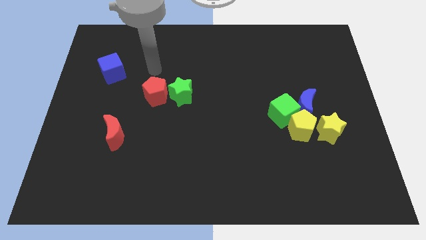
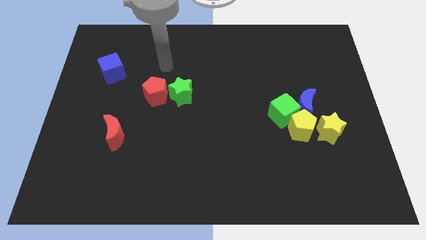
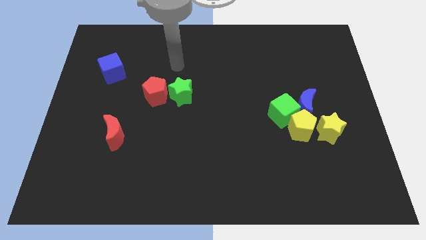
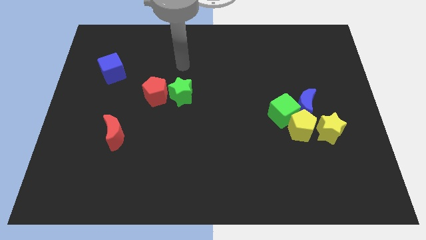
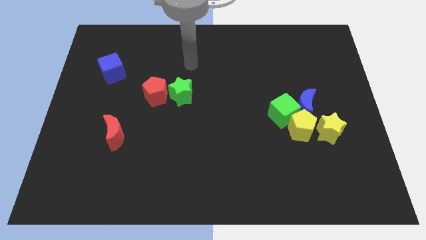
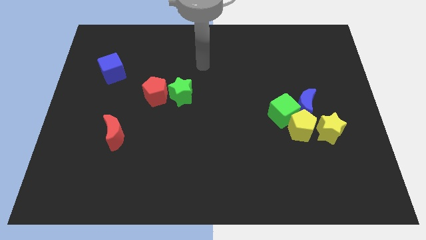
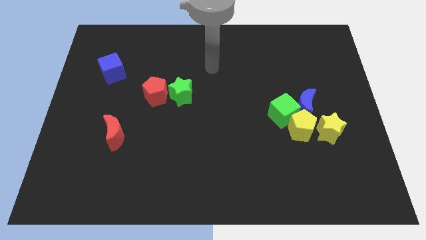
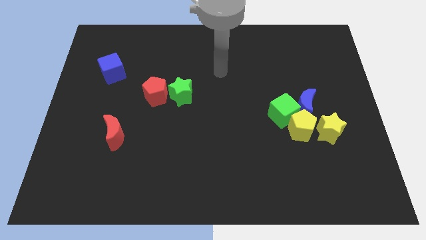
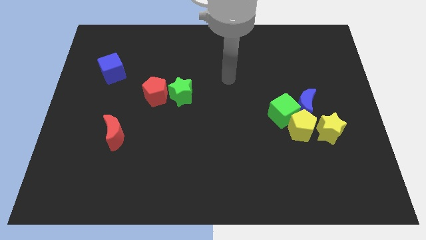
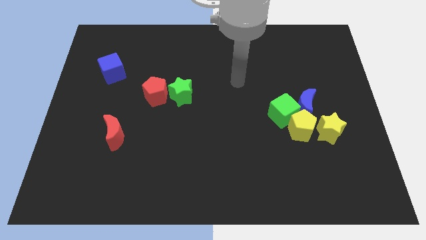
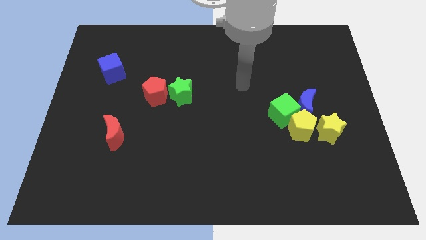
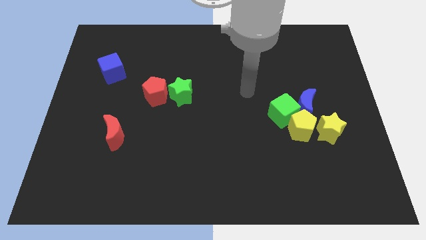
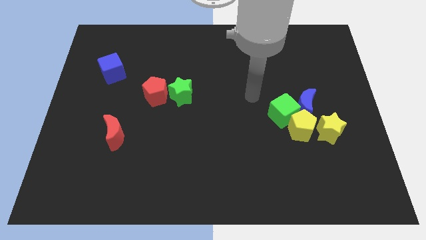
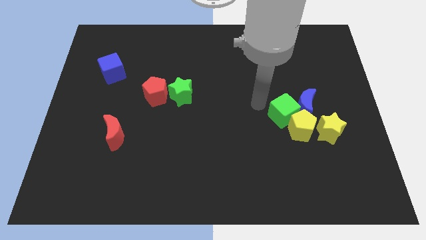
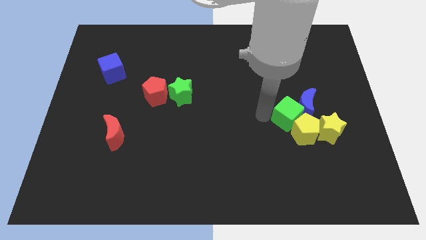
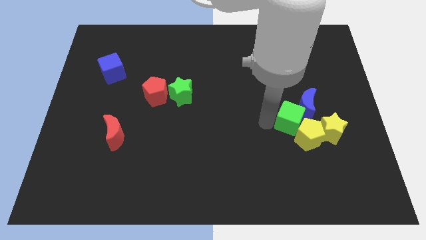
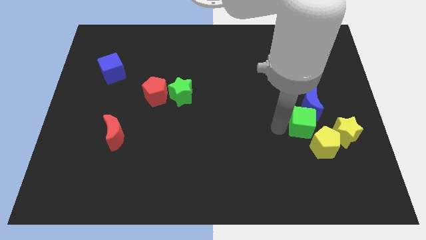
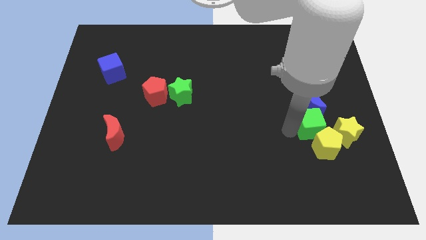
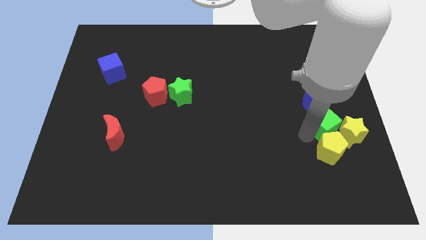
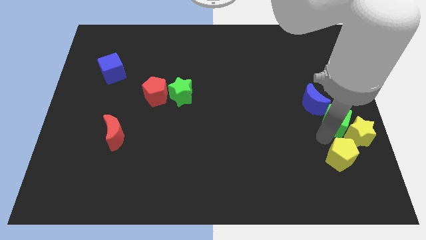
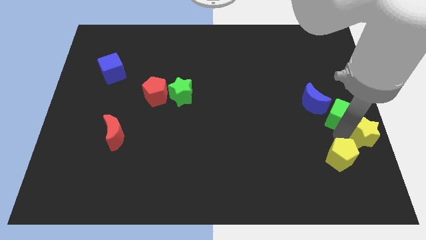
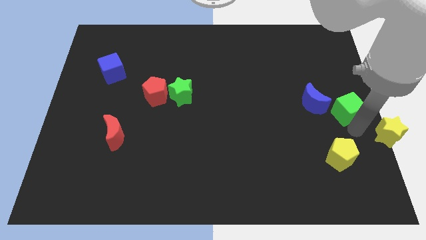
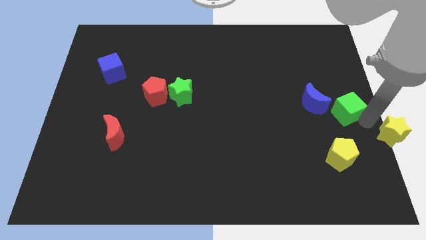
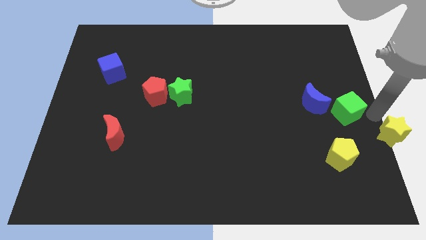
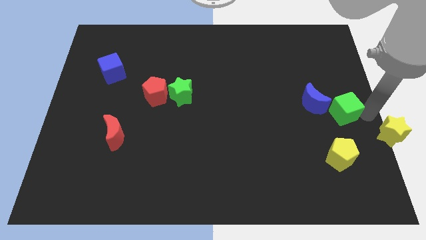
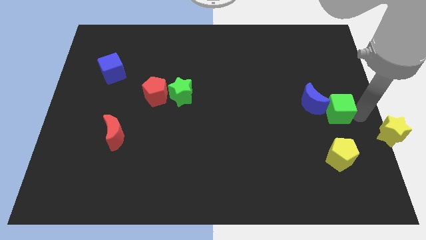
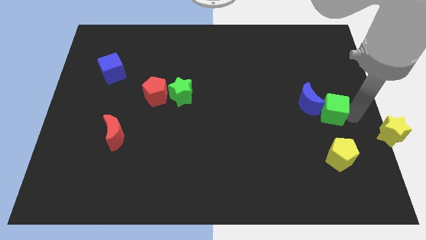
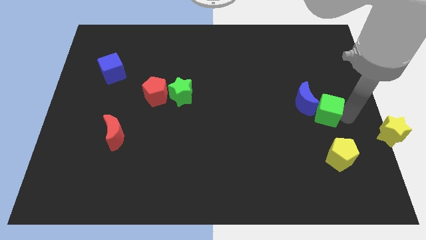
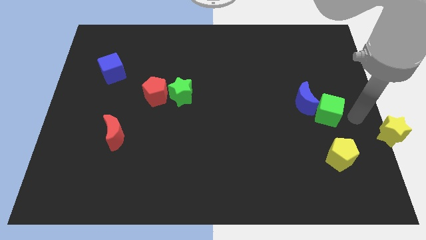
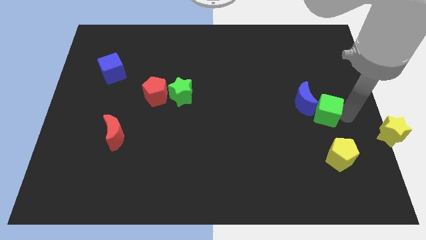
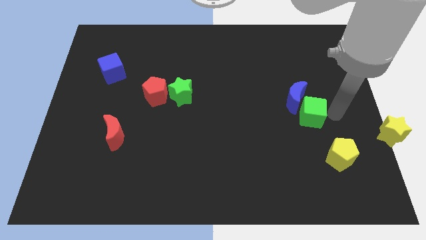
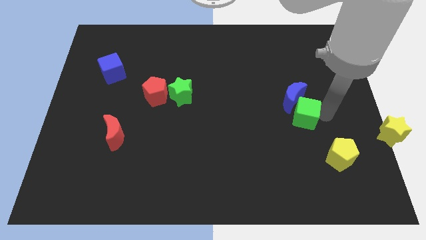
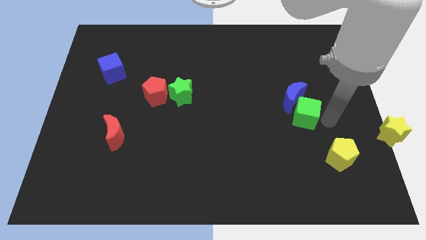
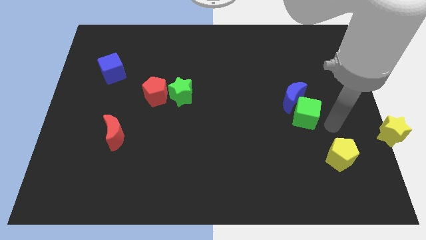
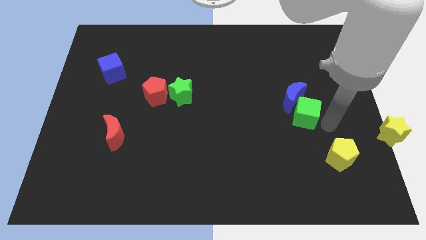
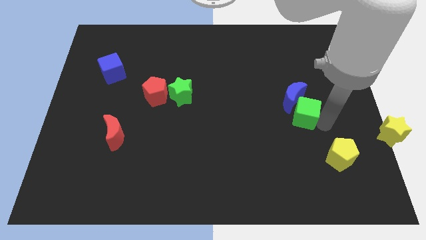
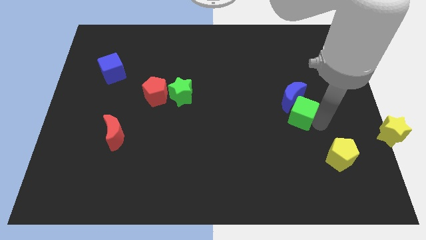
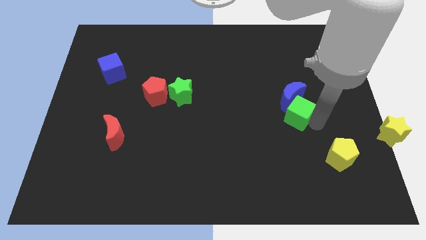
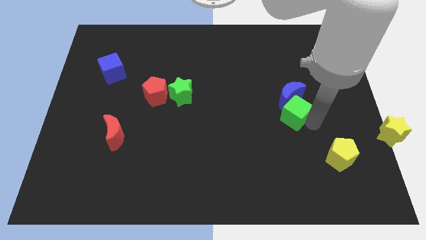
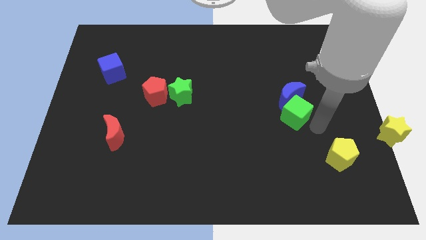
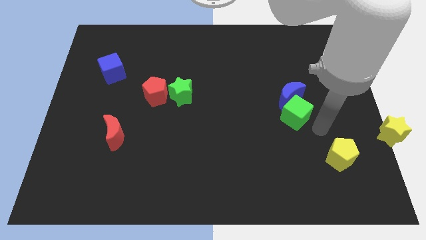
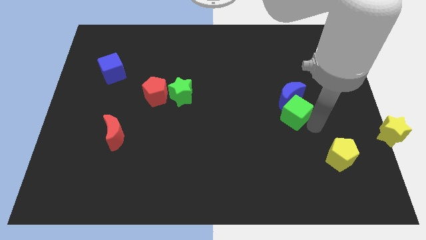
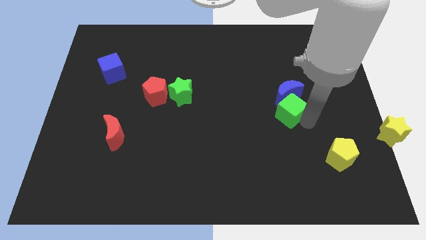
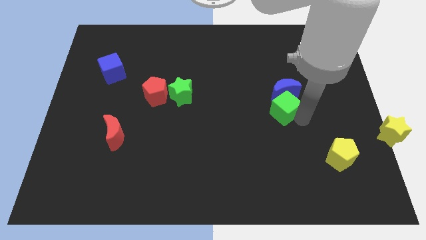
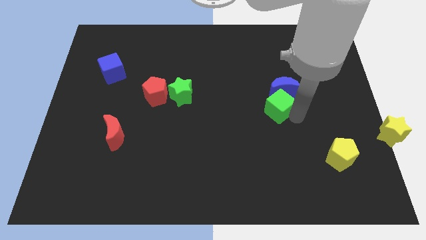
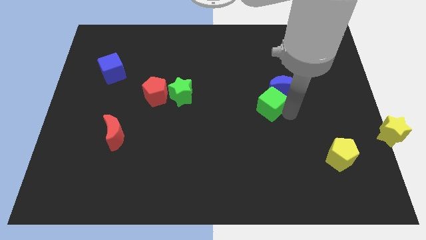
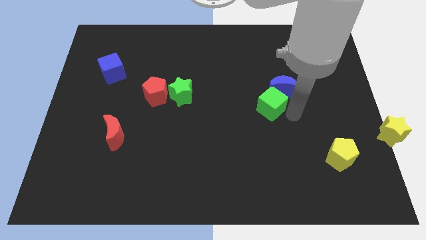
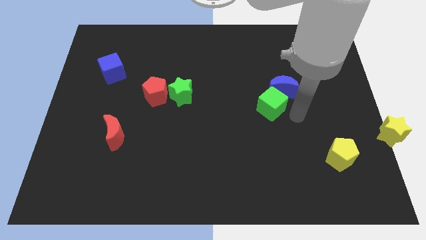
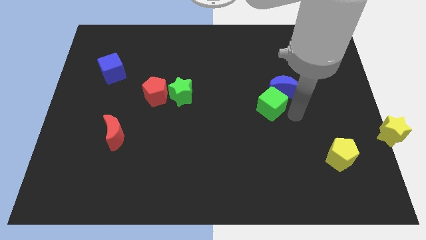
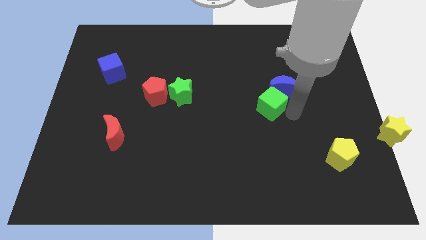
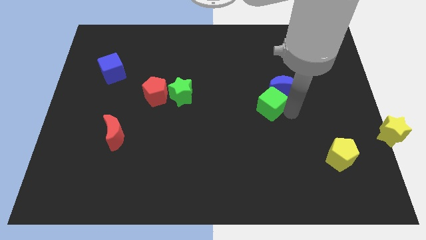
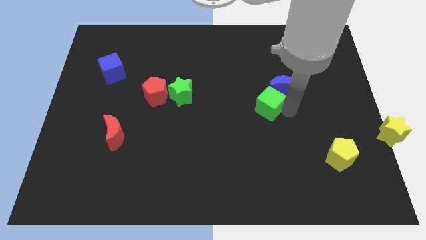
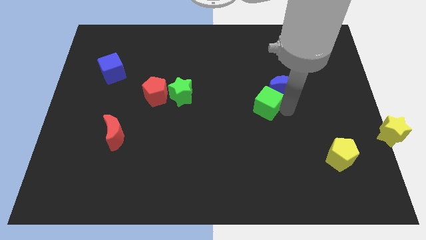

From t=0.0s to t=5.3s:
move the green cube away from the yellow pentagon and blue moon

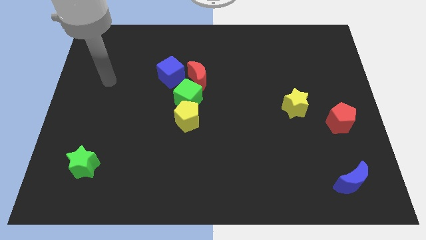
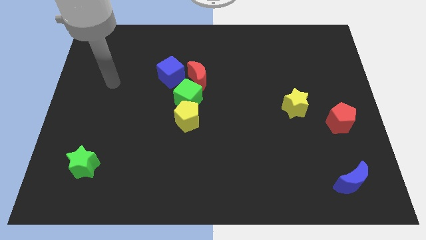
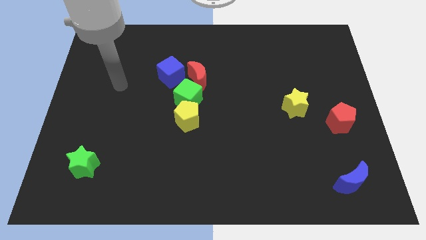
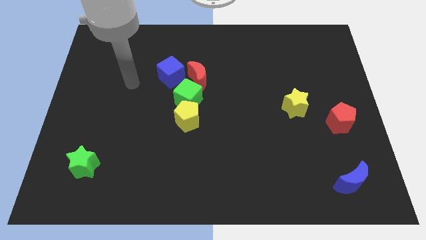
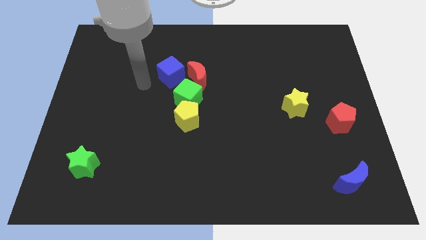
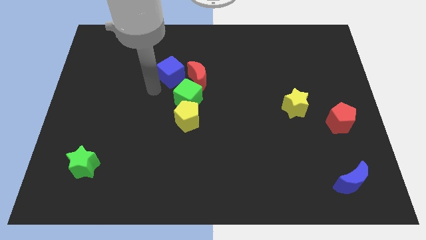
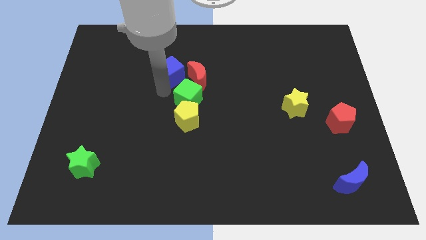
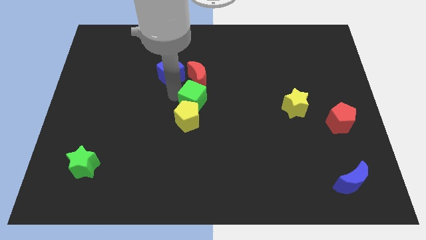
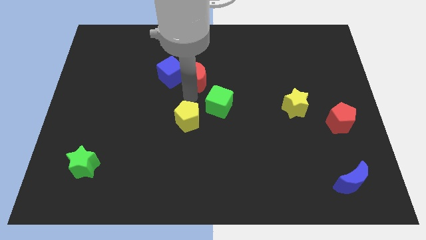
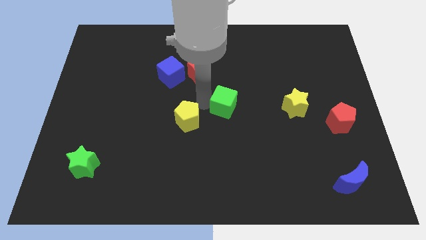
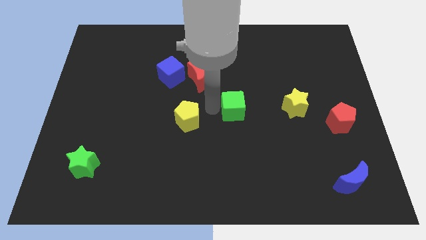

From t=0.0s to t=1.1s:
move the yellow pentagon away from the green cube

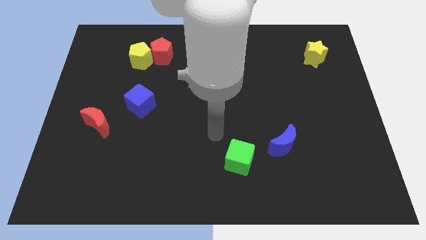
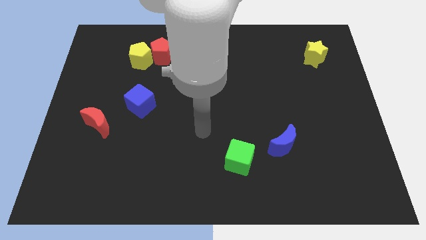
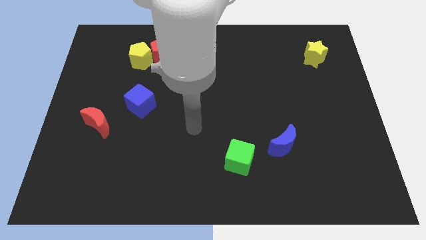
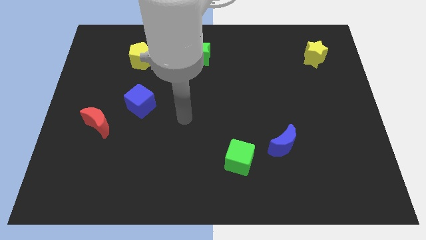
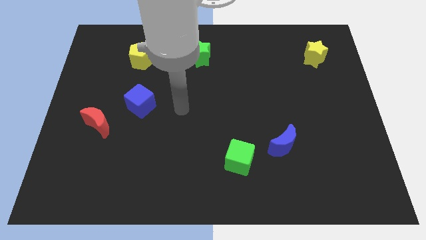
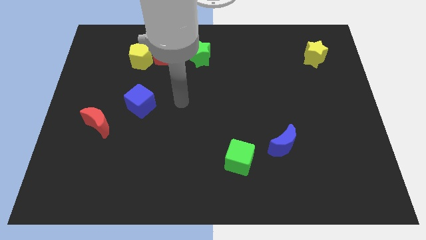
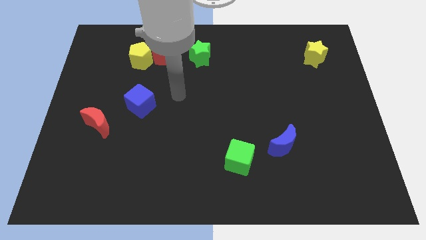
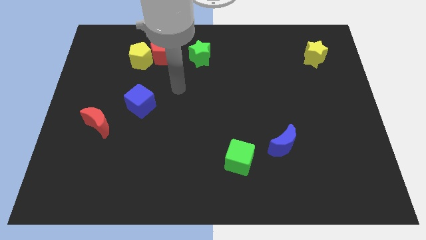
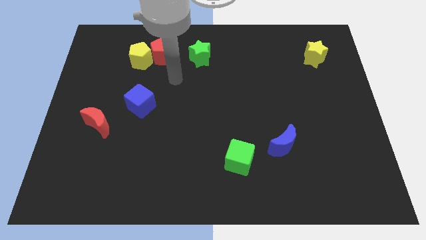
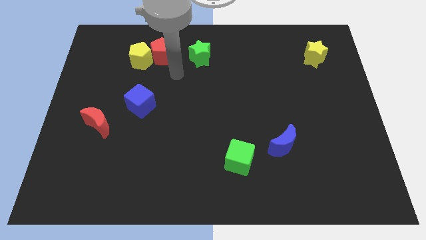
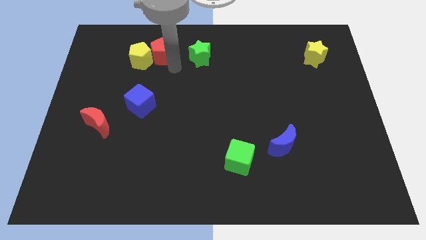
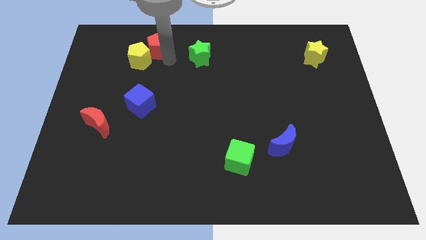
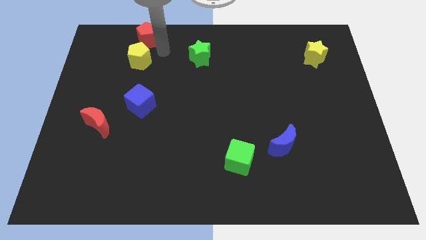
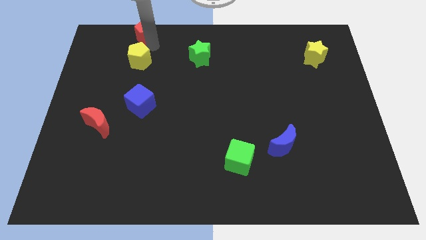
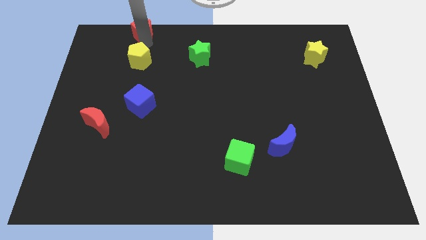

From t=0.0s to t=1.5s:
move the yellow pentagon away from the red pentagon

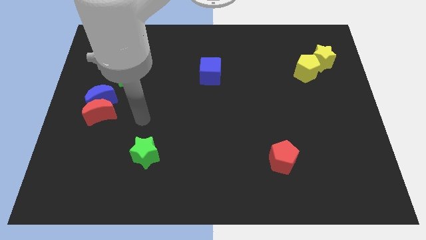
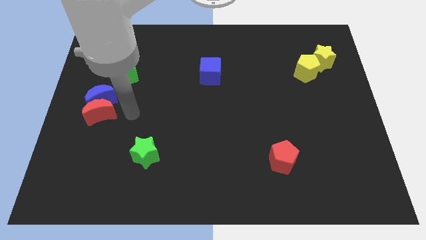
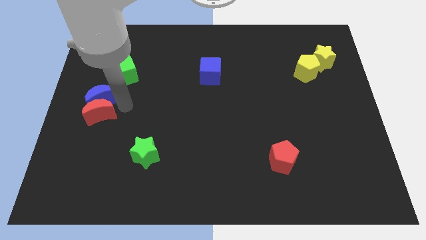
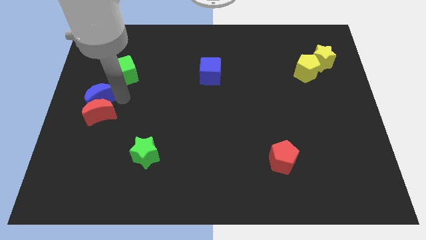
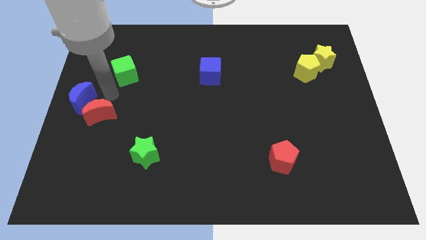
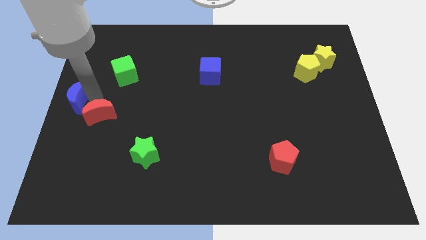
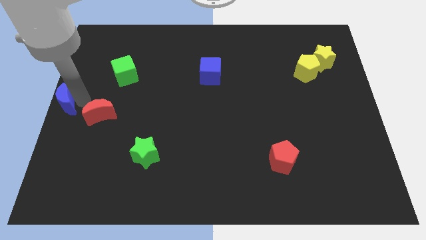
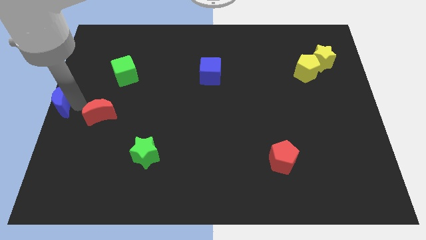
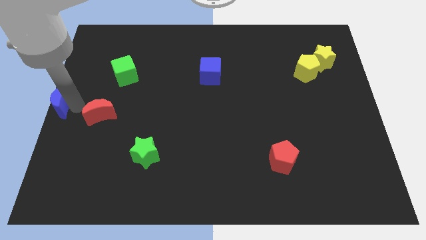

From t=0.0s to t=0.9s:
separate the red moon from the blue moon

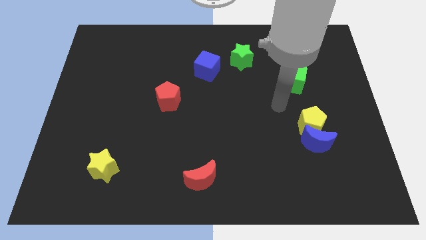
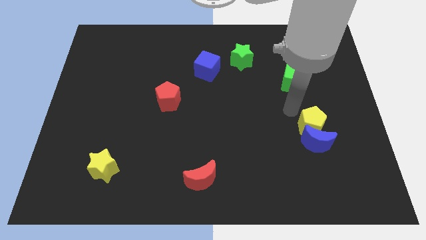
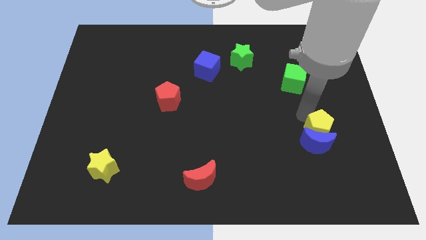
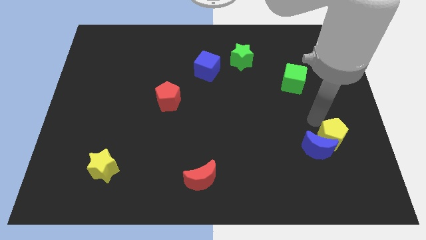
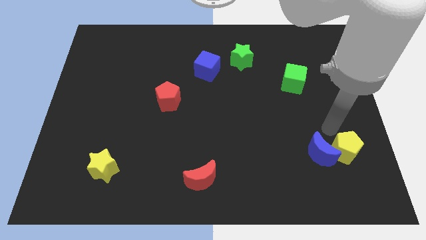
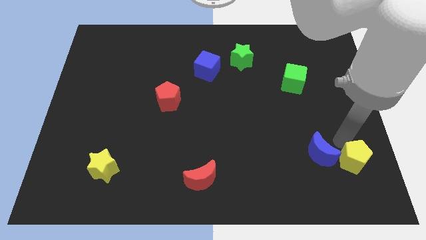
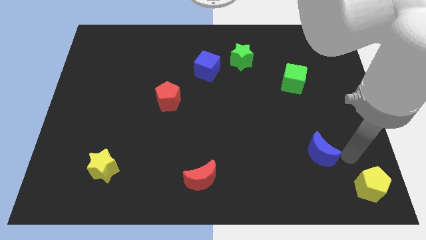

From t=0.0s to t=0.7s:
separate the blue moon from the yellow pentagon
